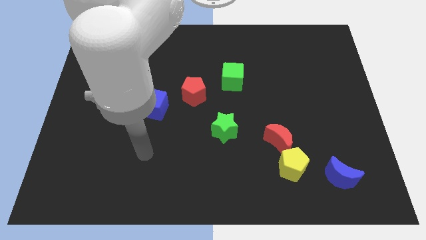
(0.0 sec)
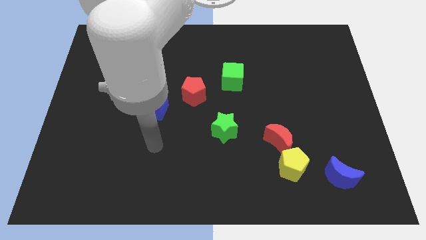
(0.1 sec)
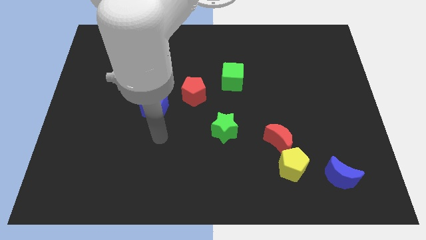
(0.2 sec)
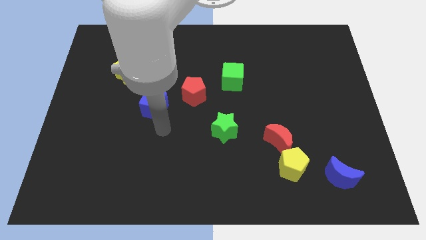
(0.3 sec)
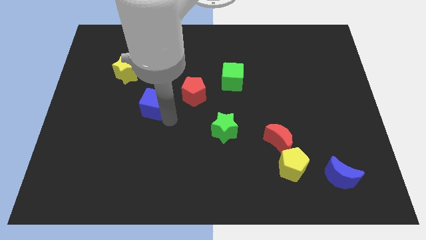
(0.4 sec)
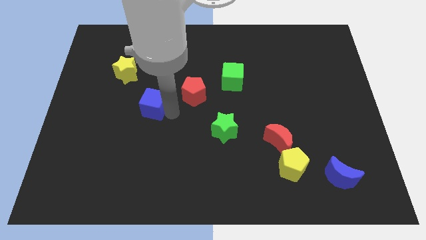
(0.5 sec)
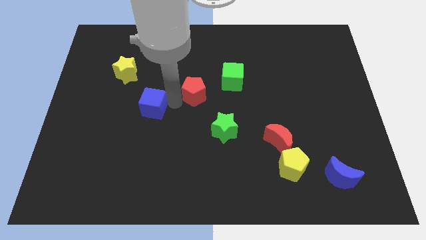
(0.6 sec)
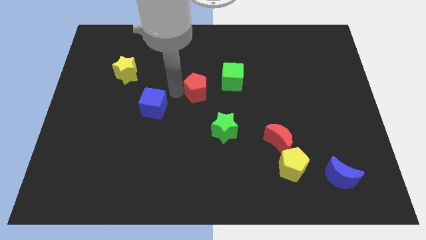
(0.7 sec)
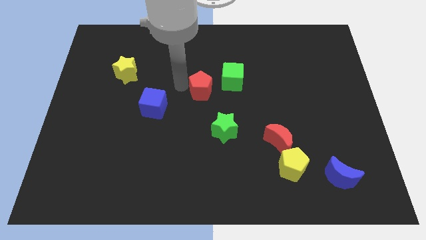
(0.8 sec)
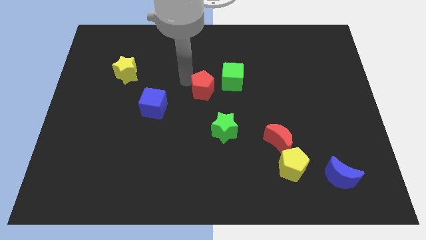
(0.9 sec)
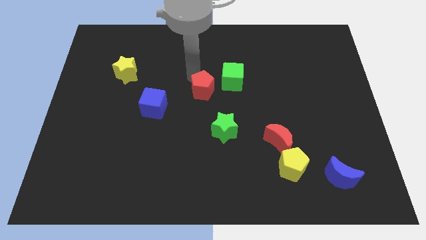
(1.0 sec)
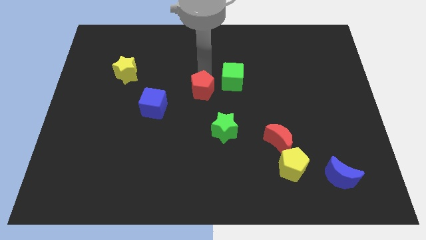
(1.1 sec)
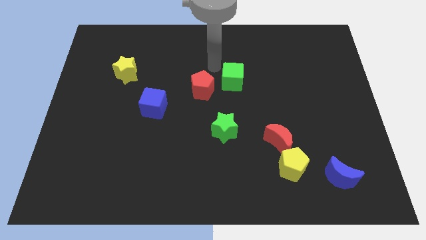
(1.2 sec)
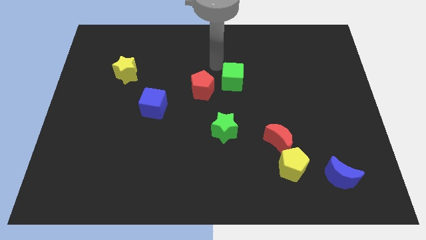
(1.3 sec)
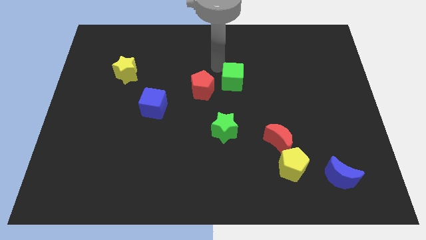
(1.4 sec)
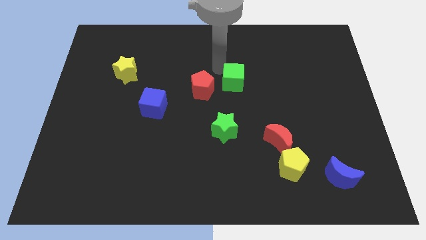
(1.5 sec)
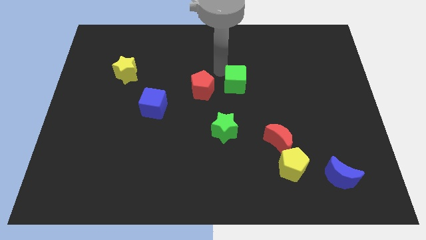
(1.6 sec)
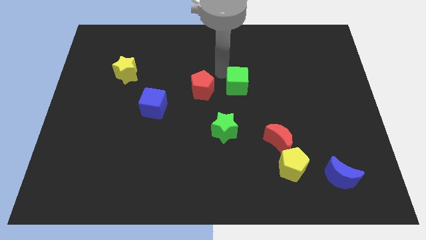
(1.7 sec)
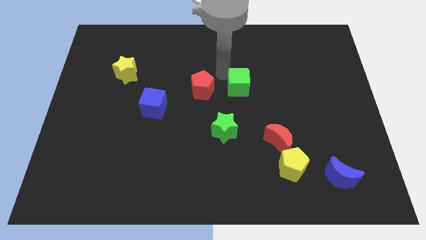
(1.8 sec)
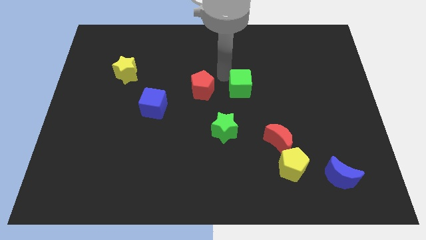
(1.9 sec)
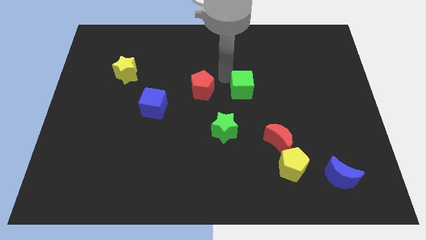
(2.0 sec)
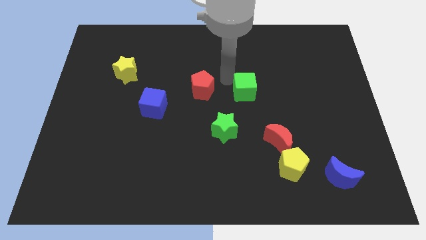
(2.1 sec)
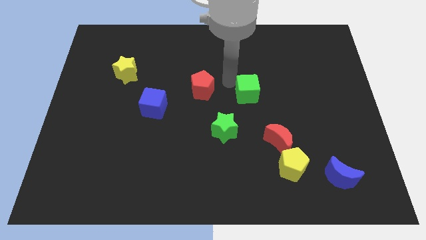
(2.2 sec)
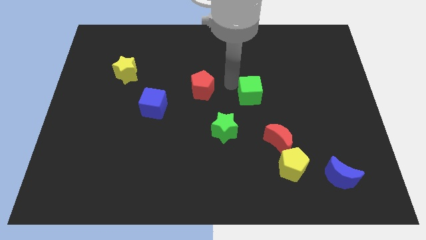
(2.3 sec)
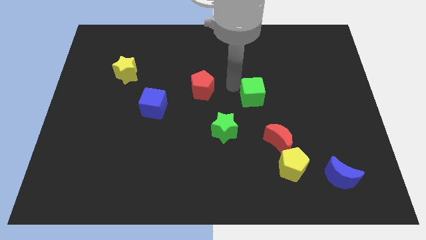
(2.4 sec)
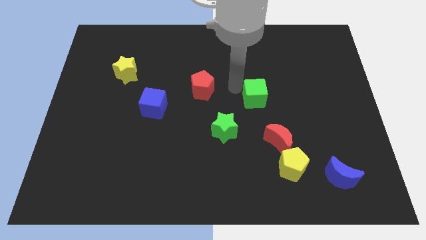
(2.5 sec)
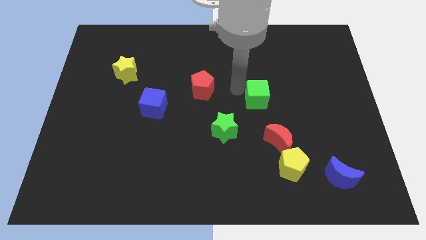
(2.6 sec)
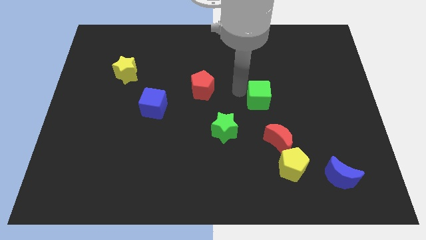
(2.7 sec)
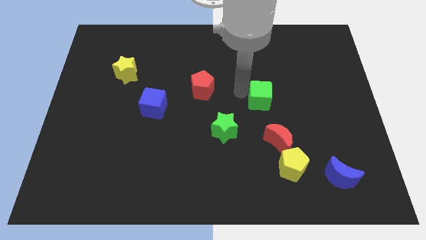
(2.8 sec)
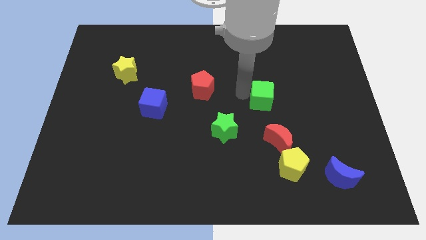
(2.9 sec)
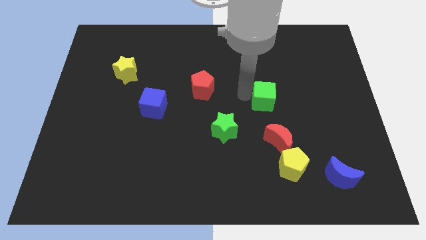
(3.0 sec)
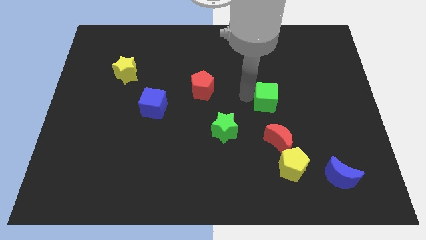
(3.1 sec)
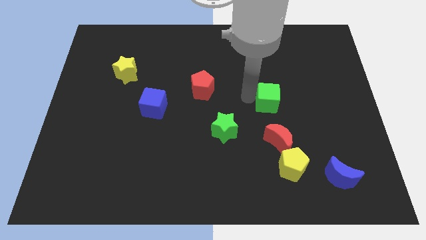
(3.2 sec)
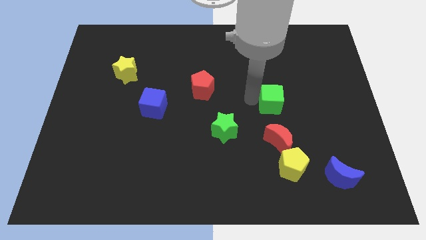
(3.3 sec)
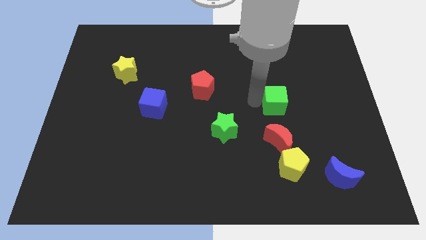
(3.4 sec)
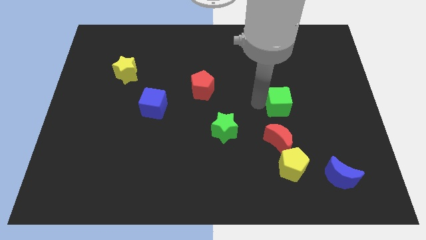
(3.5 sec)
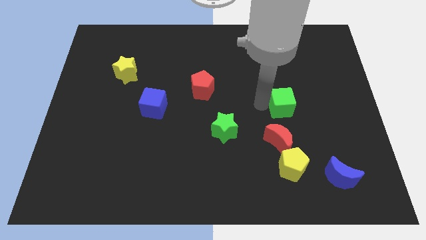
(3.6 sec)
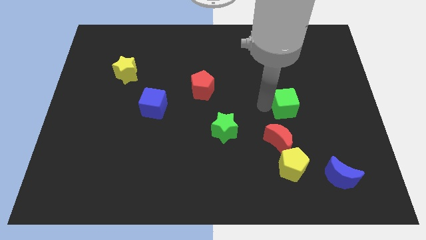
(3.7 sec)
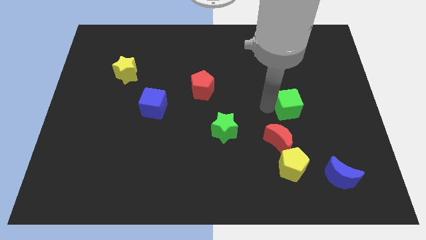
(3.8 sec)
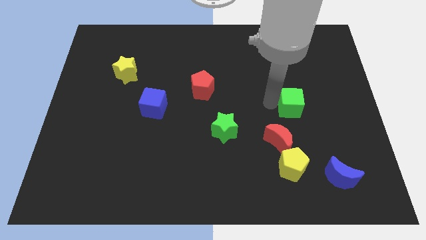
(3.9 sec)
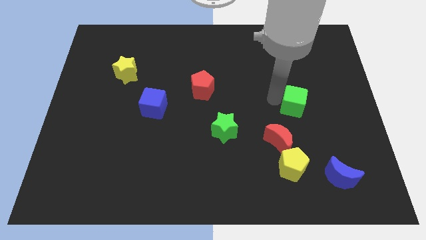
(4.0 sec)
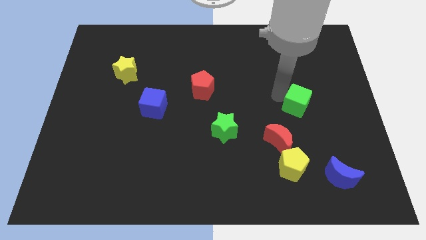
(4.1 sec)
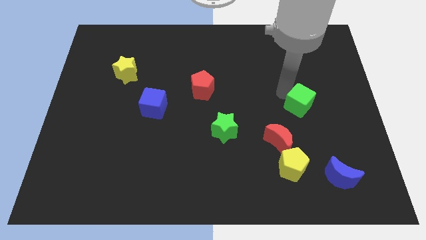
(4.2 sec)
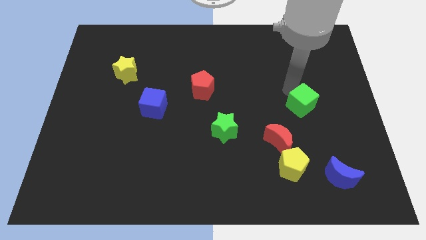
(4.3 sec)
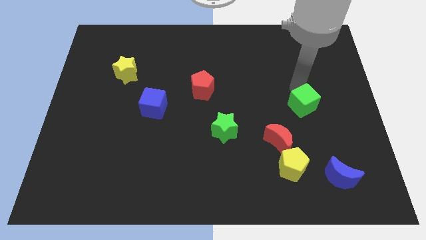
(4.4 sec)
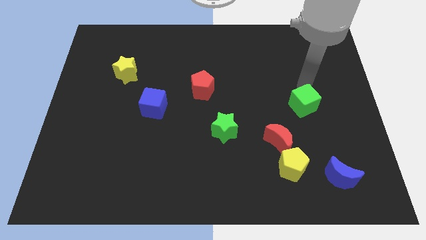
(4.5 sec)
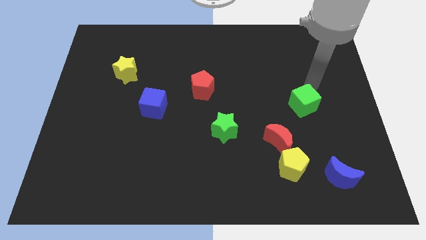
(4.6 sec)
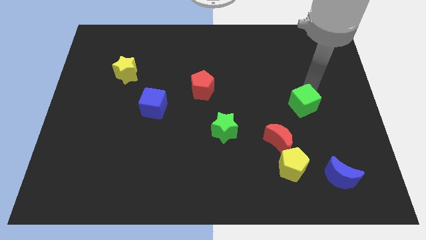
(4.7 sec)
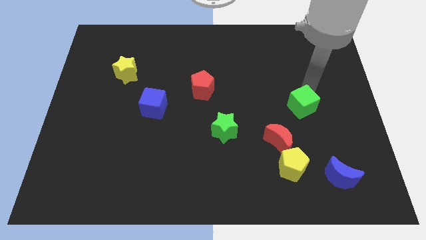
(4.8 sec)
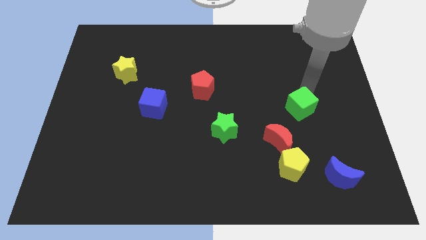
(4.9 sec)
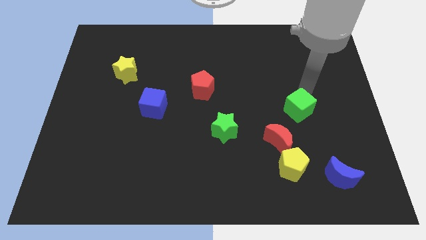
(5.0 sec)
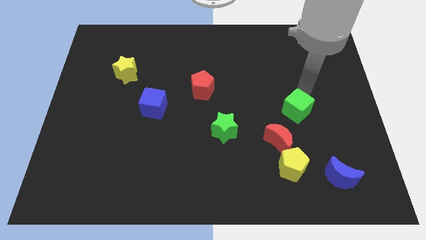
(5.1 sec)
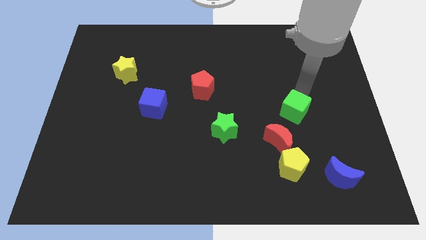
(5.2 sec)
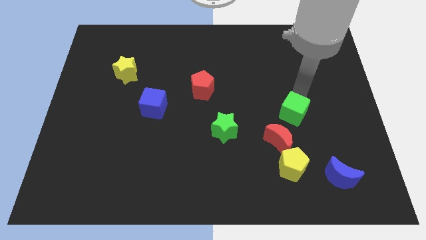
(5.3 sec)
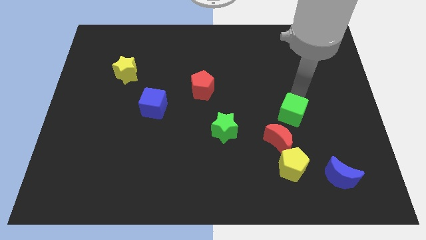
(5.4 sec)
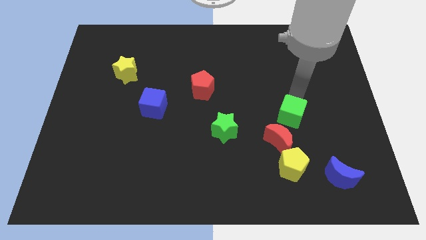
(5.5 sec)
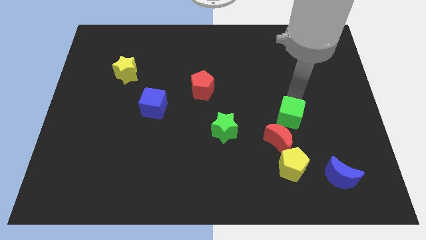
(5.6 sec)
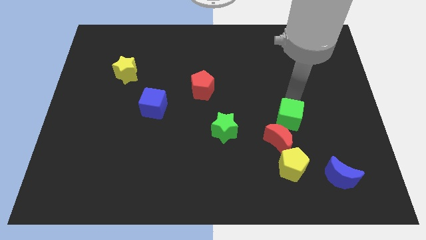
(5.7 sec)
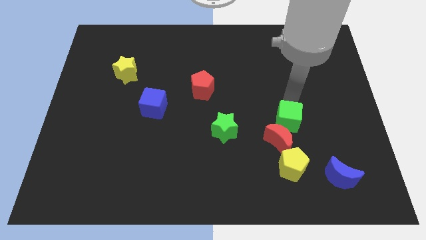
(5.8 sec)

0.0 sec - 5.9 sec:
slide the green cube to the right of the green star

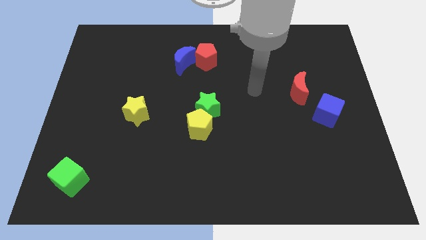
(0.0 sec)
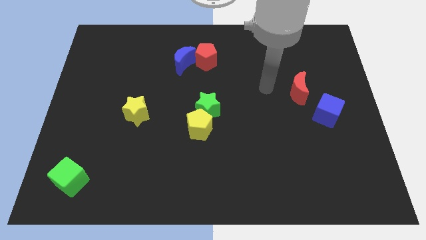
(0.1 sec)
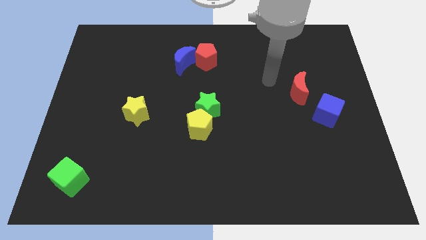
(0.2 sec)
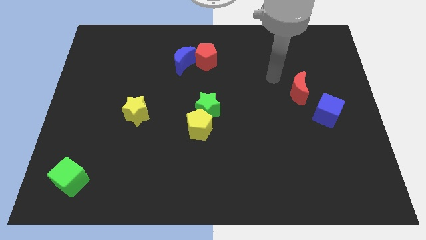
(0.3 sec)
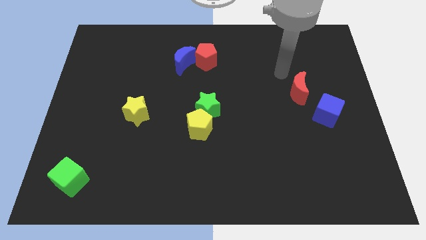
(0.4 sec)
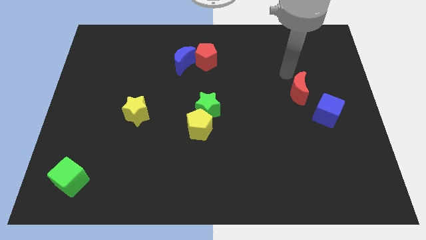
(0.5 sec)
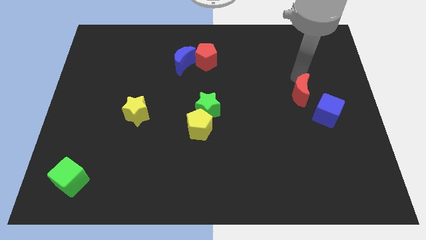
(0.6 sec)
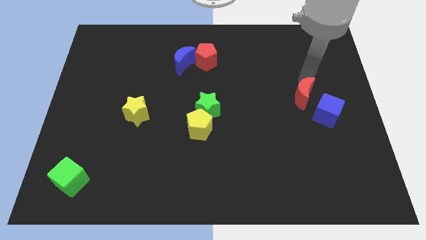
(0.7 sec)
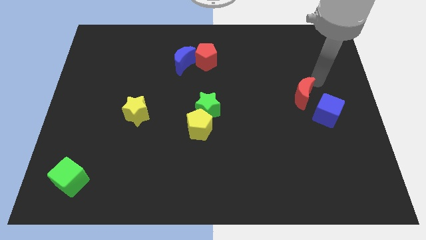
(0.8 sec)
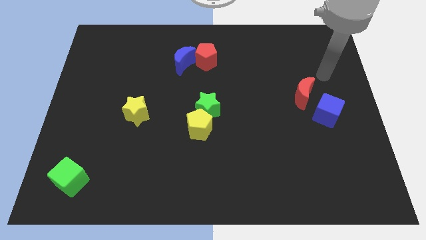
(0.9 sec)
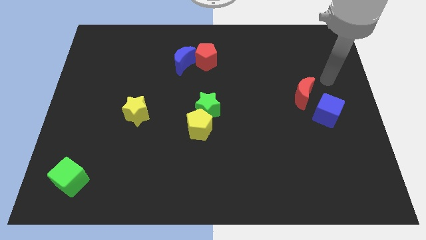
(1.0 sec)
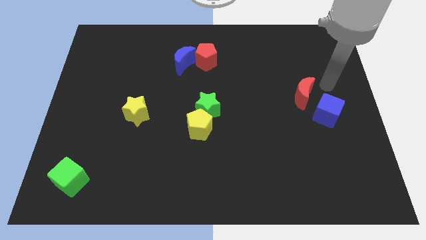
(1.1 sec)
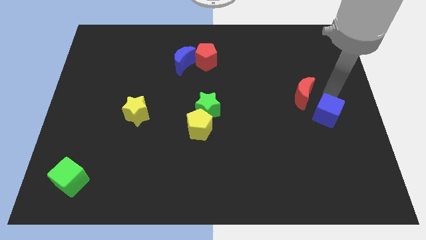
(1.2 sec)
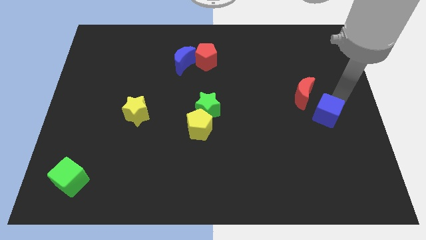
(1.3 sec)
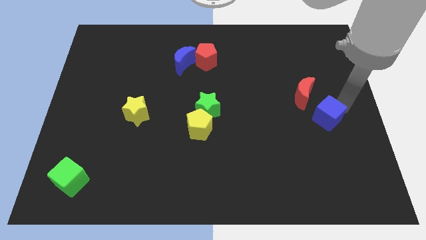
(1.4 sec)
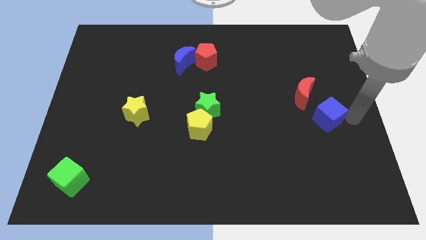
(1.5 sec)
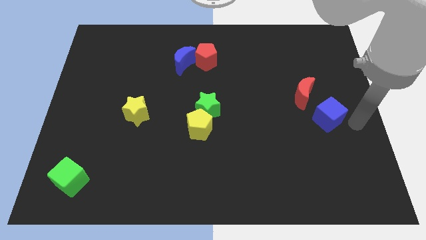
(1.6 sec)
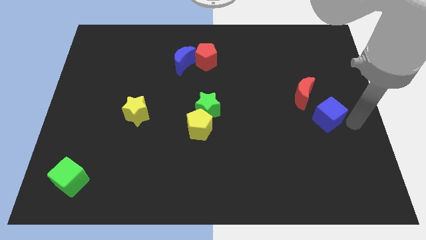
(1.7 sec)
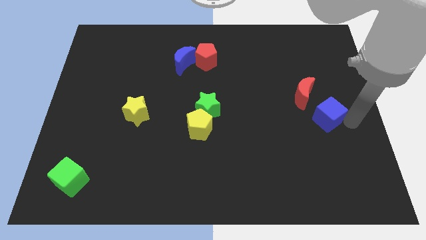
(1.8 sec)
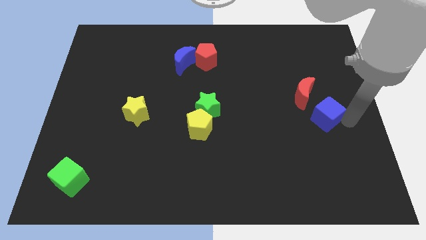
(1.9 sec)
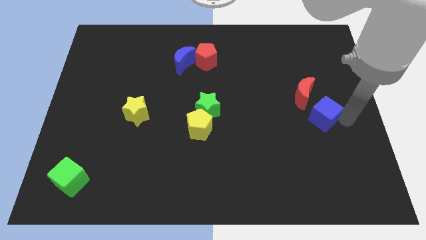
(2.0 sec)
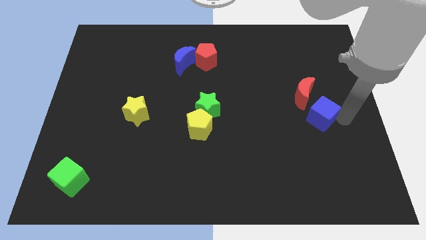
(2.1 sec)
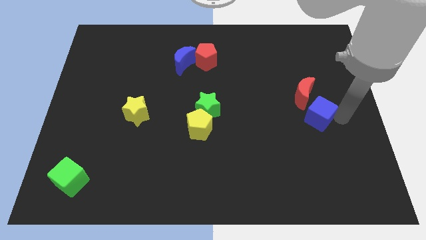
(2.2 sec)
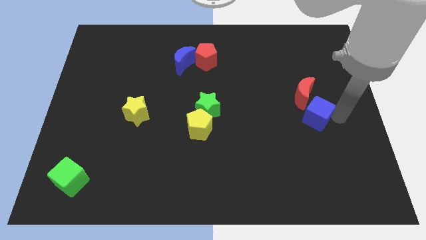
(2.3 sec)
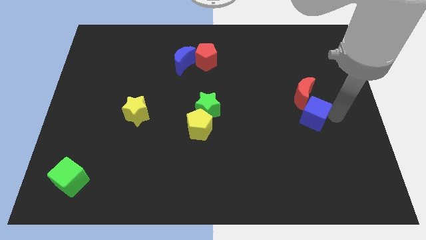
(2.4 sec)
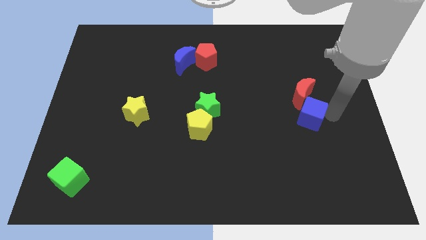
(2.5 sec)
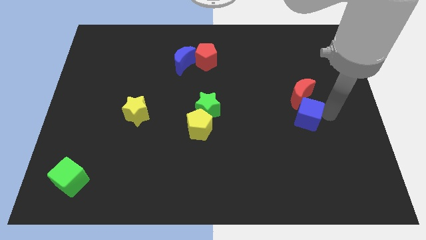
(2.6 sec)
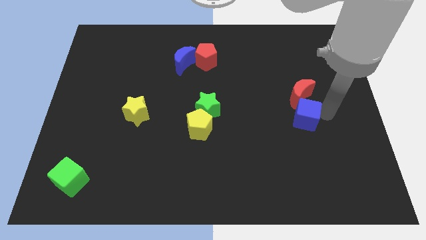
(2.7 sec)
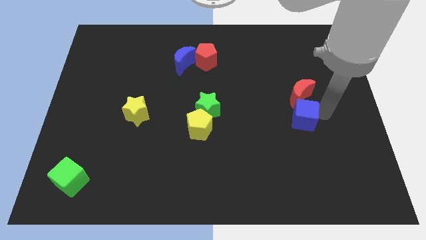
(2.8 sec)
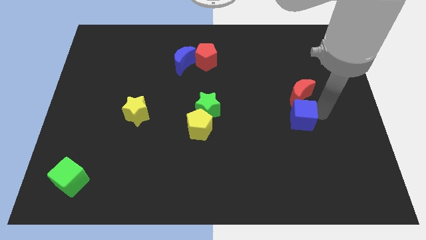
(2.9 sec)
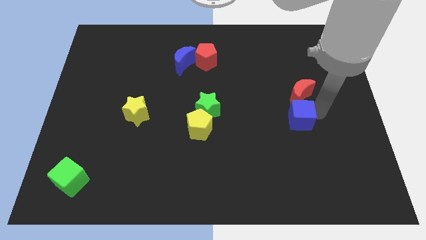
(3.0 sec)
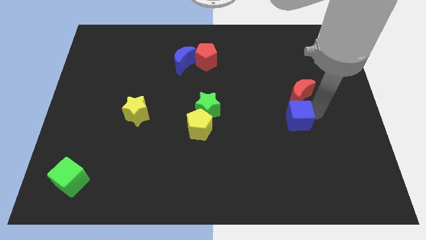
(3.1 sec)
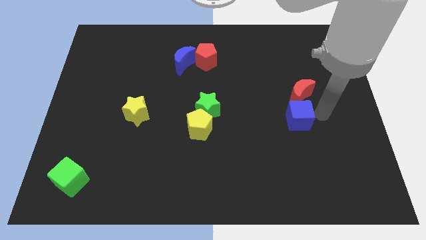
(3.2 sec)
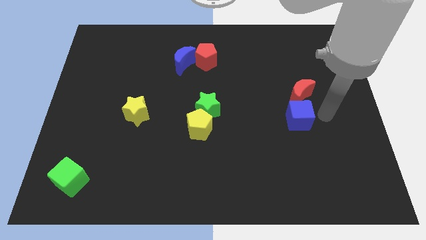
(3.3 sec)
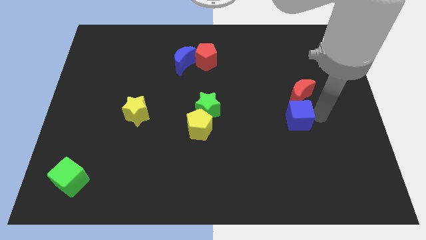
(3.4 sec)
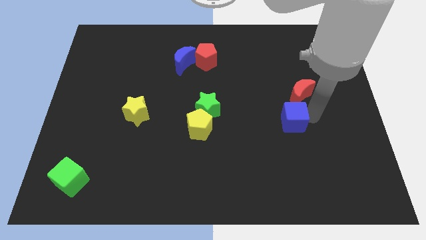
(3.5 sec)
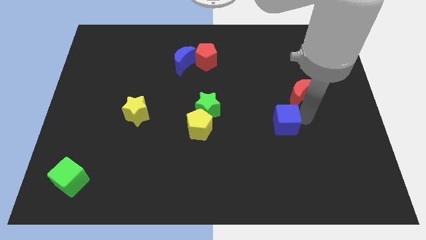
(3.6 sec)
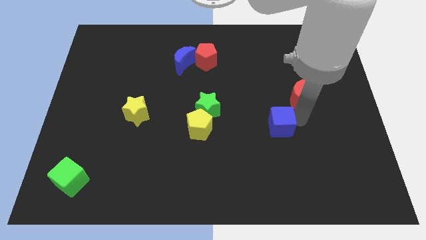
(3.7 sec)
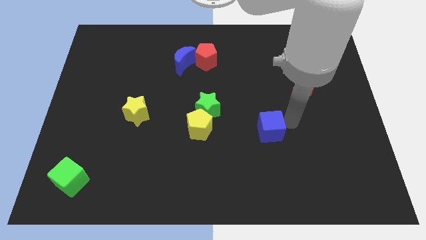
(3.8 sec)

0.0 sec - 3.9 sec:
put the blue cube to the right of the yellow pentagon
